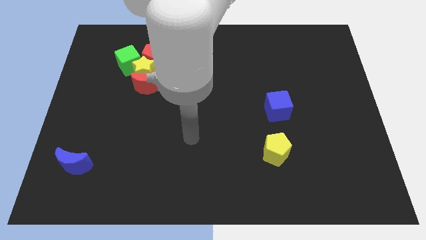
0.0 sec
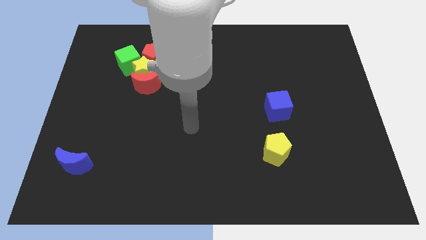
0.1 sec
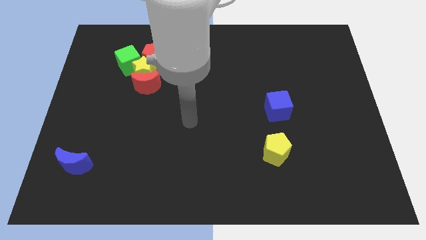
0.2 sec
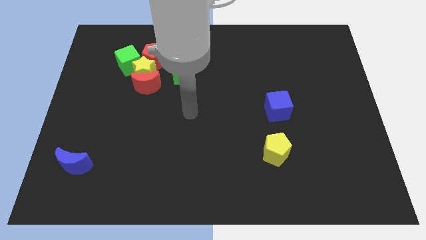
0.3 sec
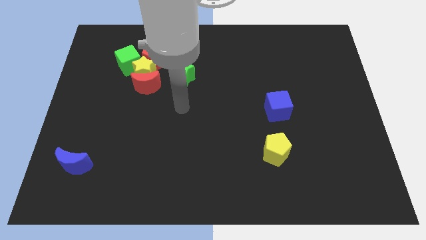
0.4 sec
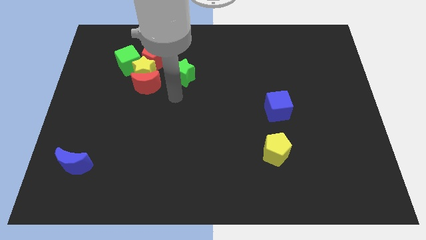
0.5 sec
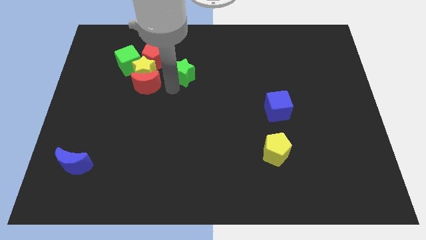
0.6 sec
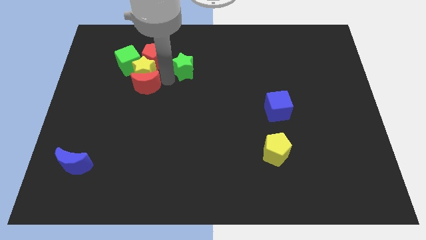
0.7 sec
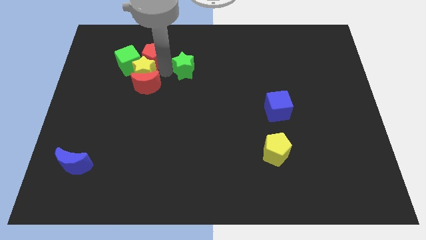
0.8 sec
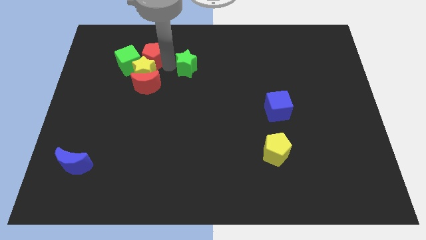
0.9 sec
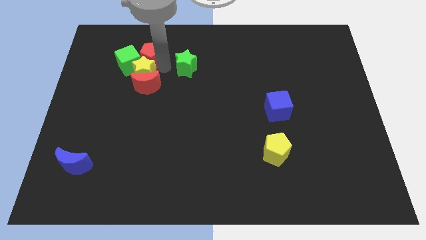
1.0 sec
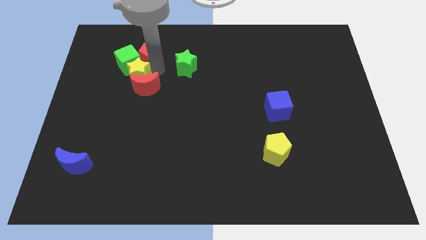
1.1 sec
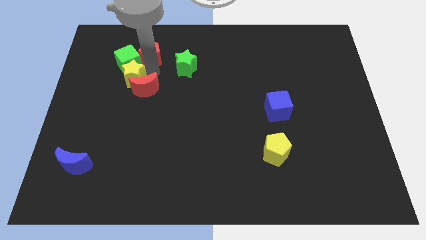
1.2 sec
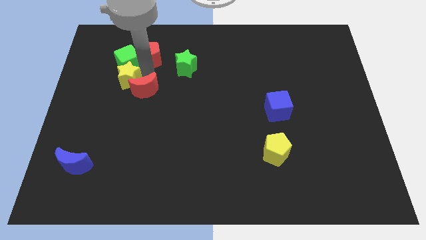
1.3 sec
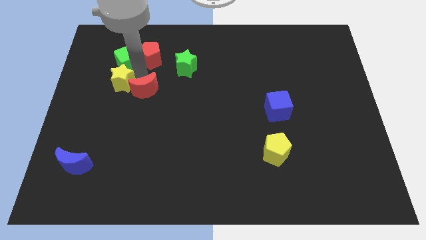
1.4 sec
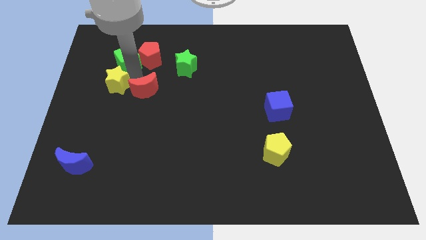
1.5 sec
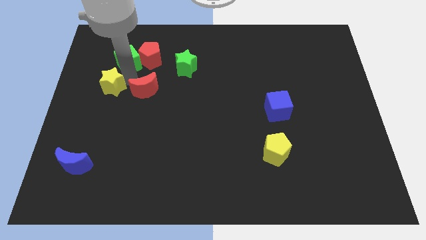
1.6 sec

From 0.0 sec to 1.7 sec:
move the yellow star away from the group of blocks

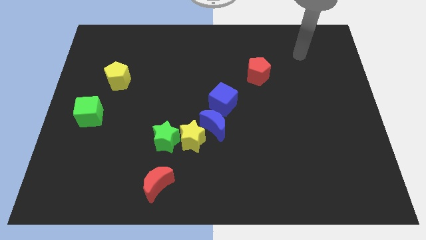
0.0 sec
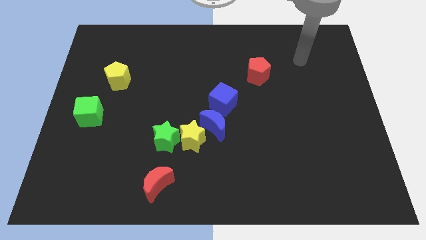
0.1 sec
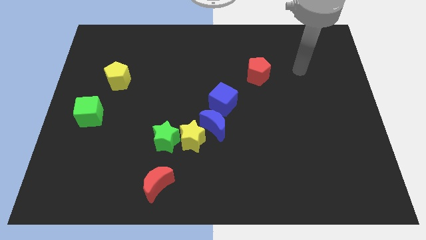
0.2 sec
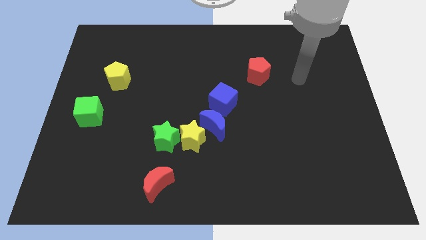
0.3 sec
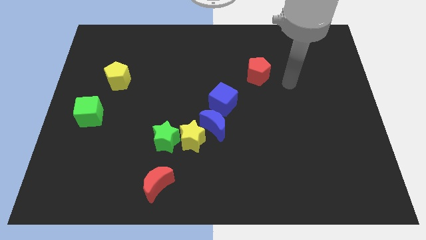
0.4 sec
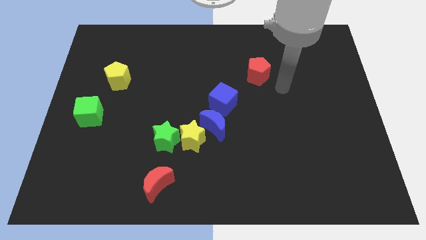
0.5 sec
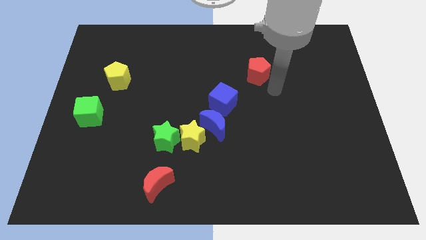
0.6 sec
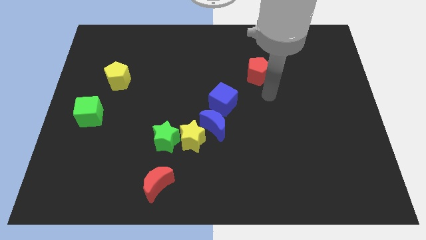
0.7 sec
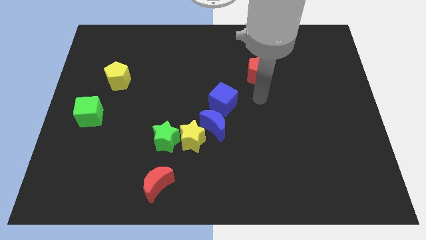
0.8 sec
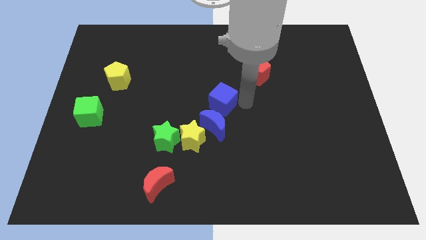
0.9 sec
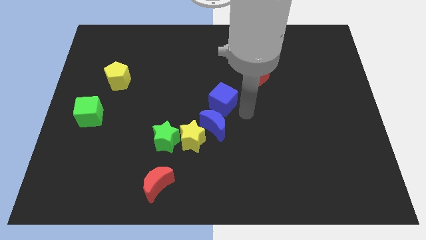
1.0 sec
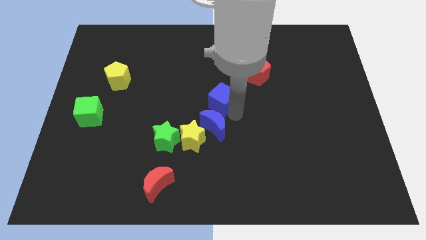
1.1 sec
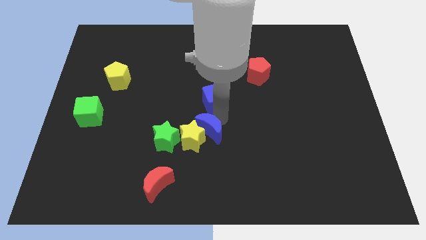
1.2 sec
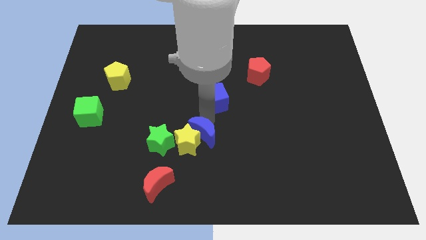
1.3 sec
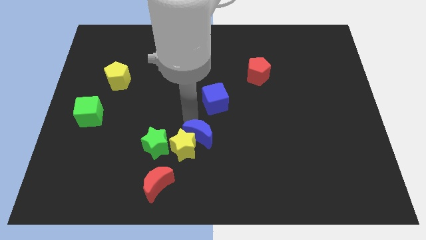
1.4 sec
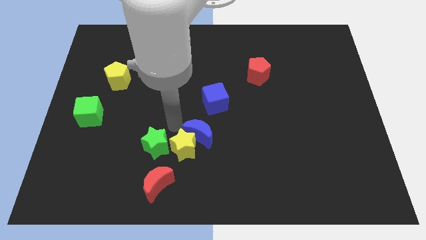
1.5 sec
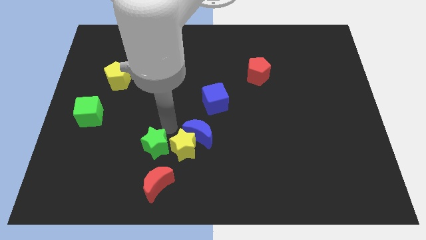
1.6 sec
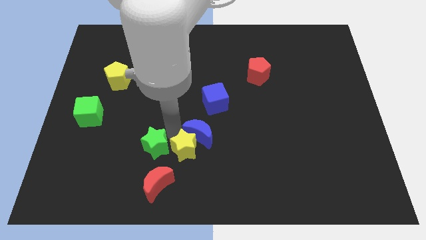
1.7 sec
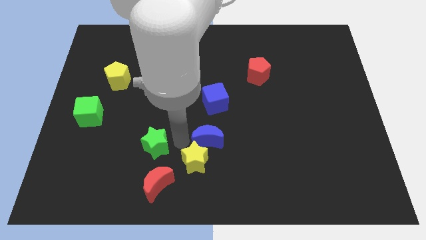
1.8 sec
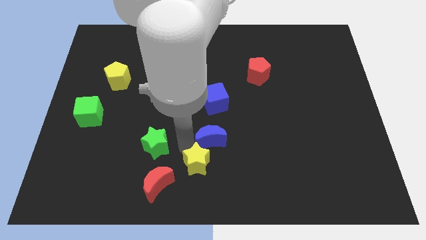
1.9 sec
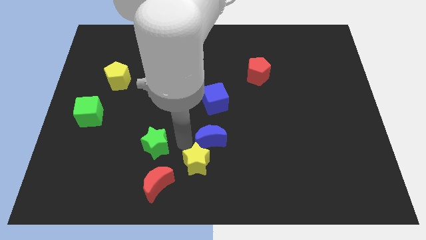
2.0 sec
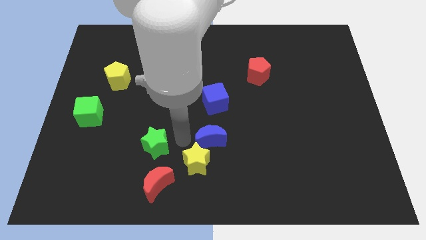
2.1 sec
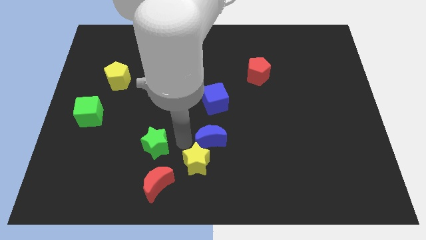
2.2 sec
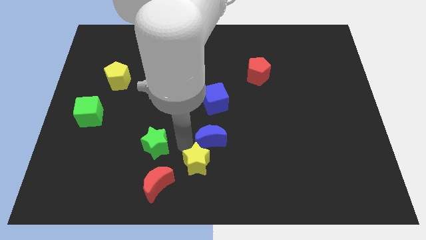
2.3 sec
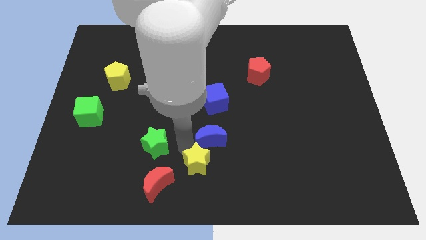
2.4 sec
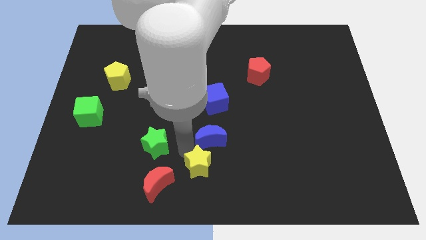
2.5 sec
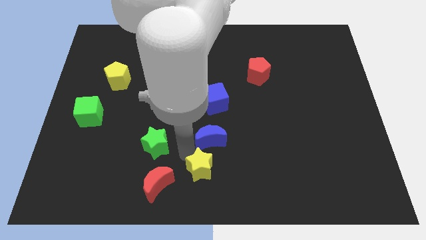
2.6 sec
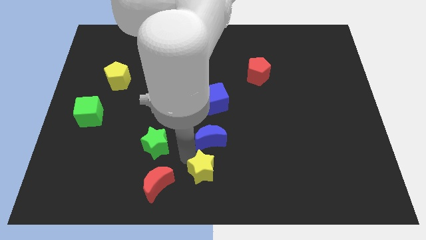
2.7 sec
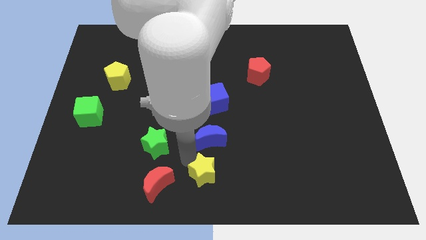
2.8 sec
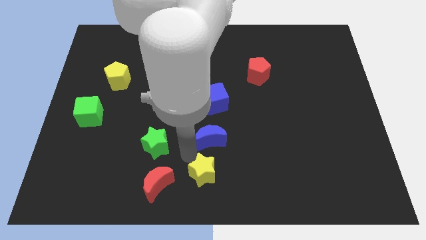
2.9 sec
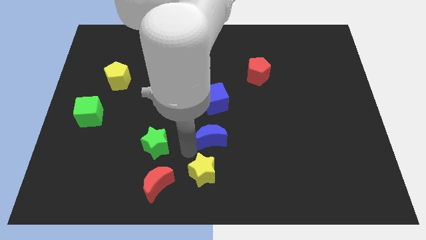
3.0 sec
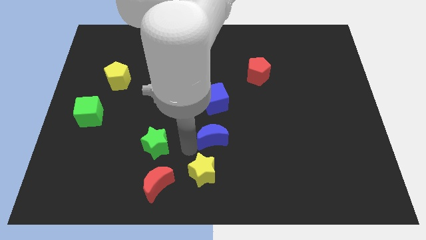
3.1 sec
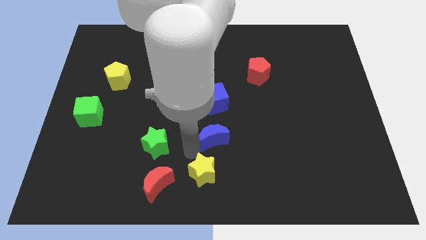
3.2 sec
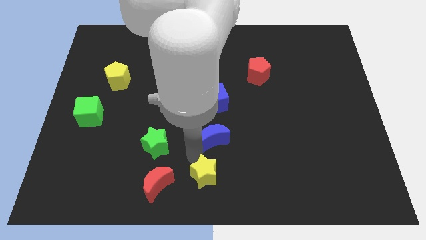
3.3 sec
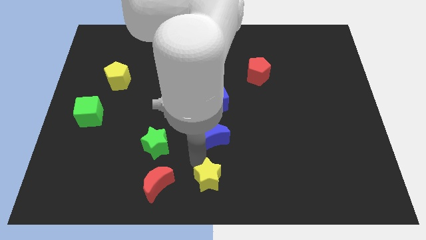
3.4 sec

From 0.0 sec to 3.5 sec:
move the yellow star away from the blue moon and green star

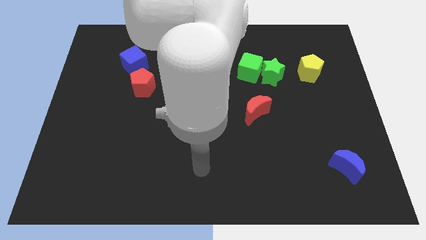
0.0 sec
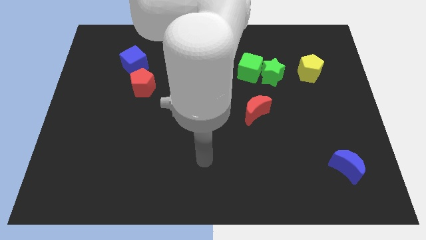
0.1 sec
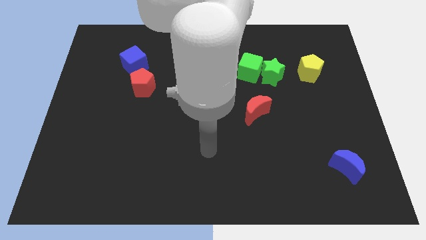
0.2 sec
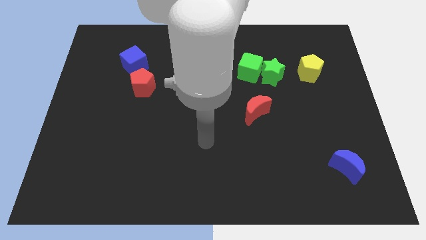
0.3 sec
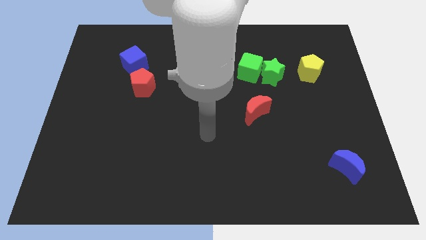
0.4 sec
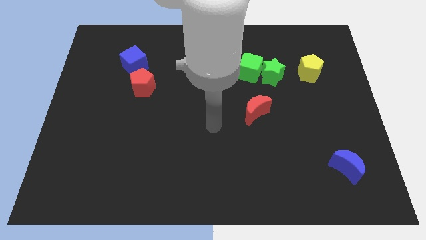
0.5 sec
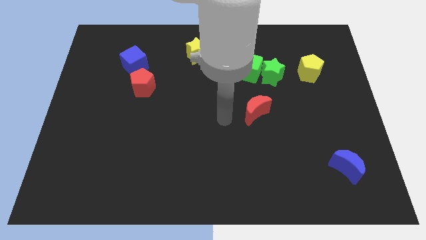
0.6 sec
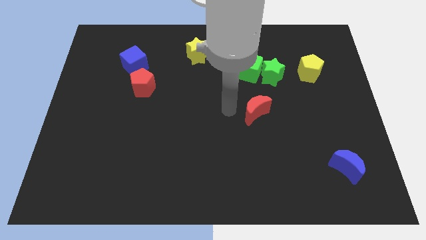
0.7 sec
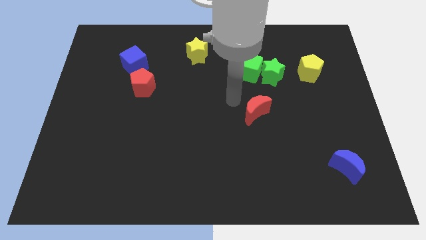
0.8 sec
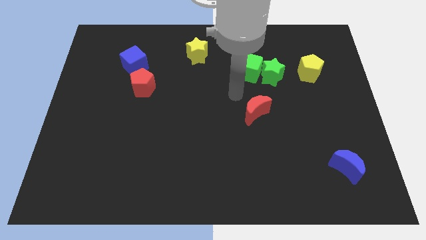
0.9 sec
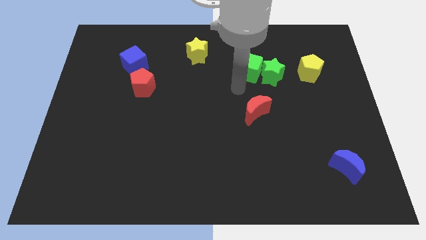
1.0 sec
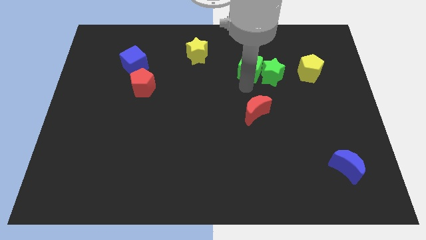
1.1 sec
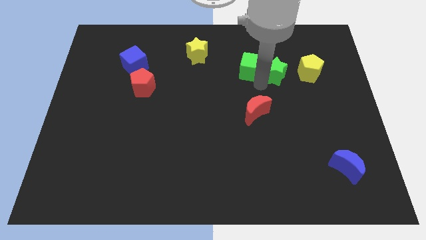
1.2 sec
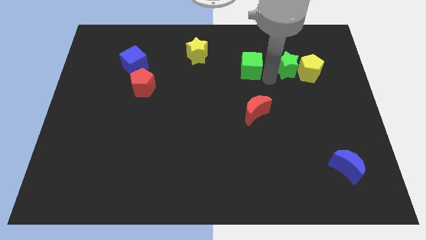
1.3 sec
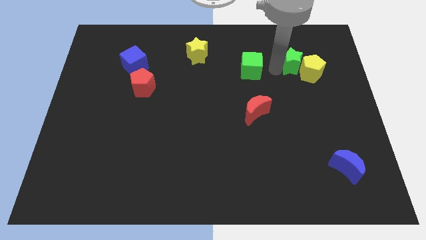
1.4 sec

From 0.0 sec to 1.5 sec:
pull the green cube apart from the green star

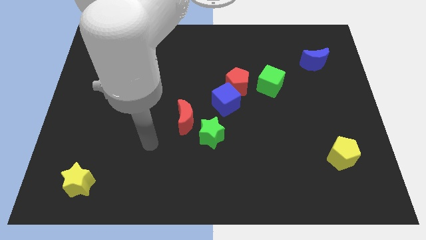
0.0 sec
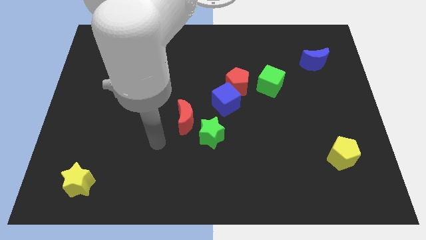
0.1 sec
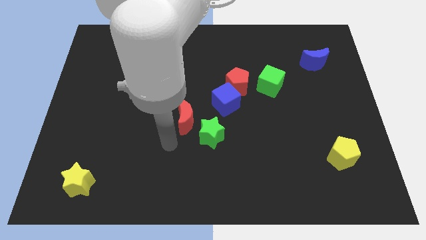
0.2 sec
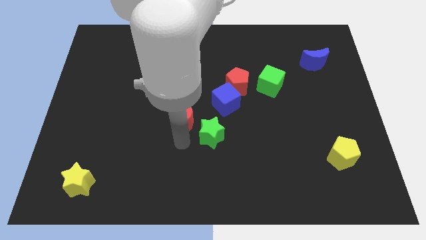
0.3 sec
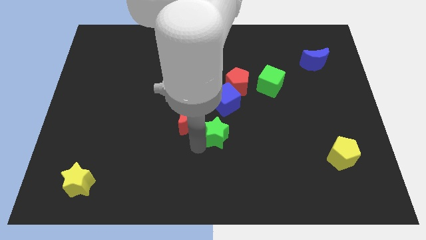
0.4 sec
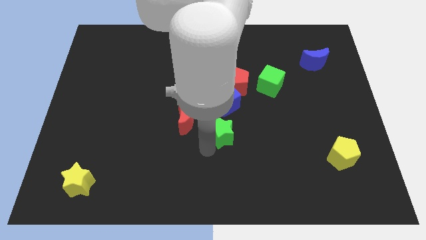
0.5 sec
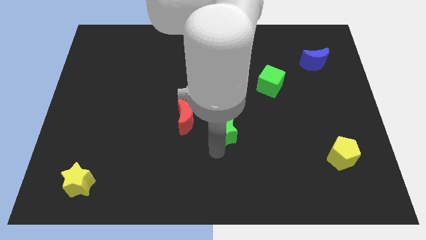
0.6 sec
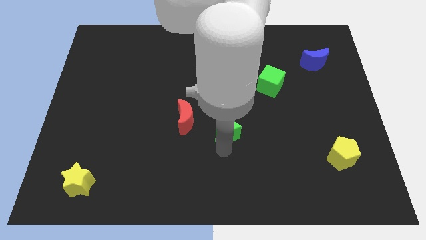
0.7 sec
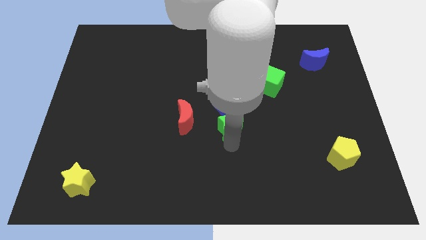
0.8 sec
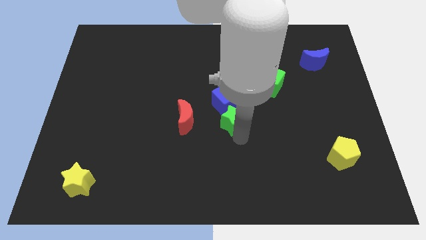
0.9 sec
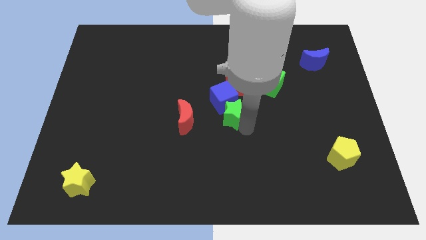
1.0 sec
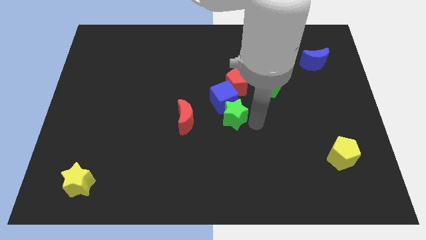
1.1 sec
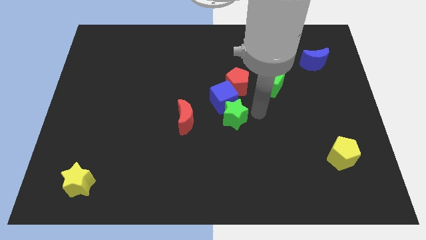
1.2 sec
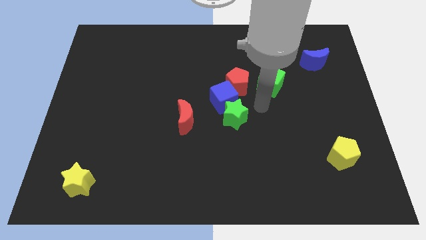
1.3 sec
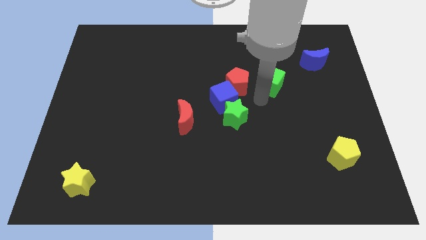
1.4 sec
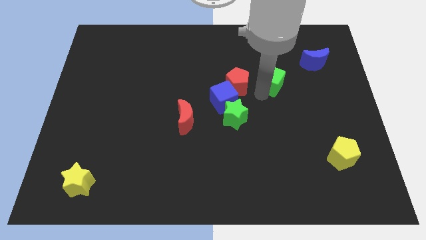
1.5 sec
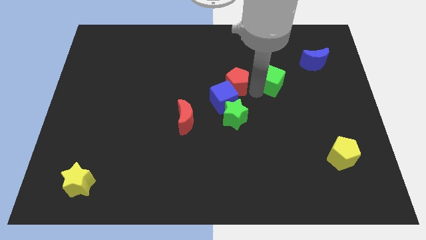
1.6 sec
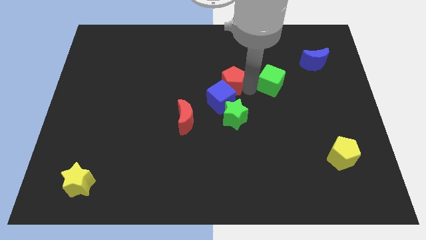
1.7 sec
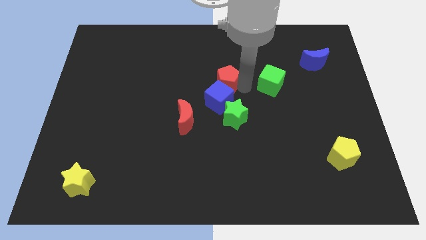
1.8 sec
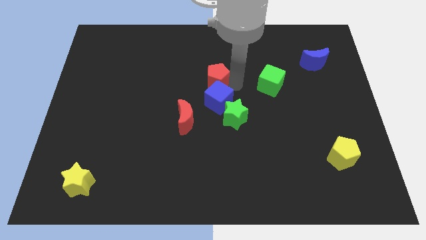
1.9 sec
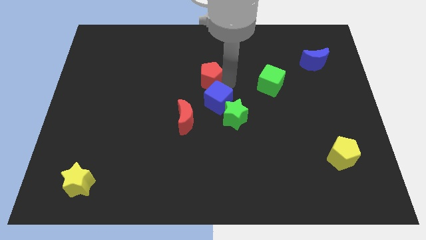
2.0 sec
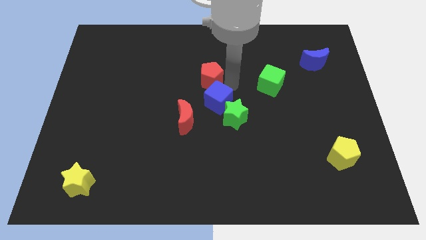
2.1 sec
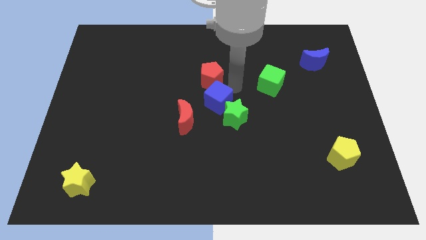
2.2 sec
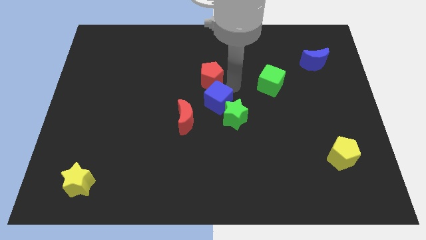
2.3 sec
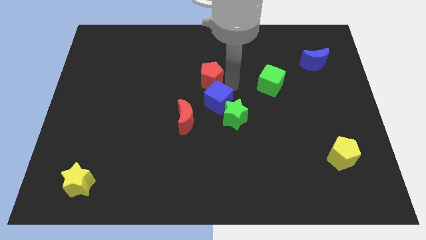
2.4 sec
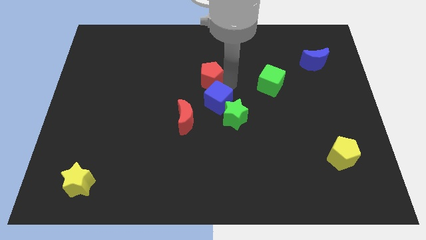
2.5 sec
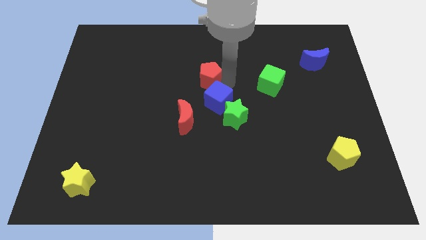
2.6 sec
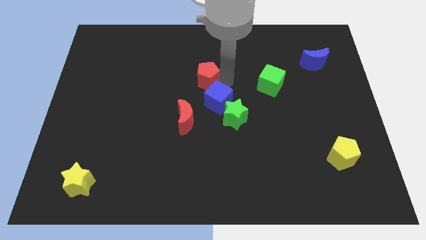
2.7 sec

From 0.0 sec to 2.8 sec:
move the red pentagon away from the blue cube and green cube
